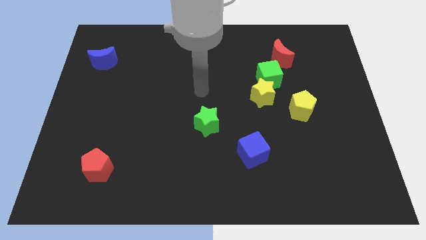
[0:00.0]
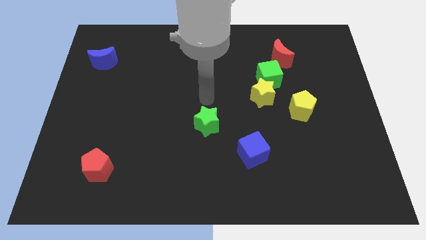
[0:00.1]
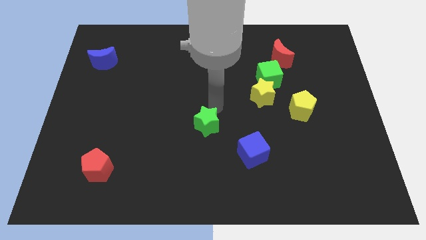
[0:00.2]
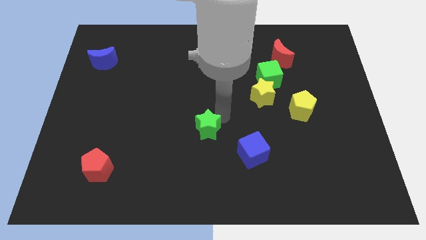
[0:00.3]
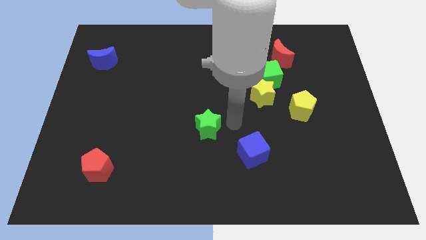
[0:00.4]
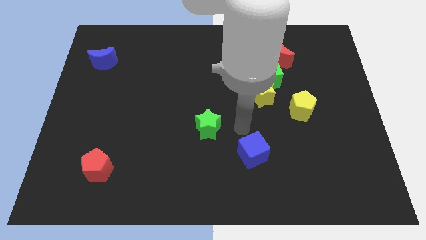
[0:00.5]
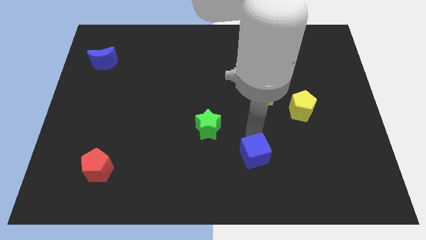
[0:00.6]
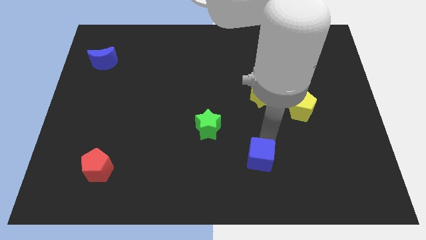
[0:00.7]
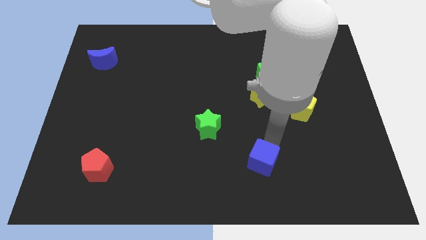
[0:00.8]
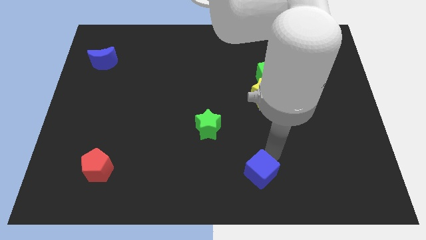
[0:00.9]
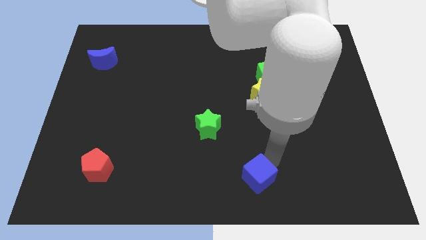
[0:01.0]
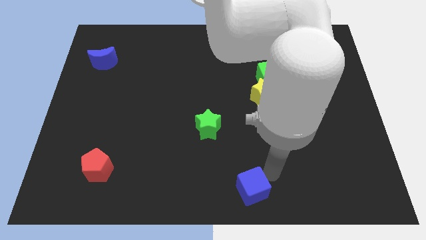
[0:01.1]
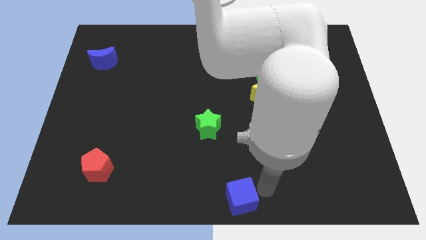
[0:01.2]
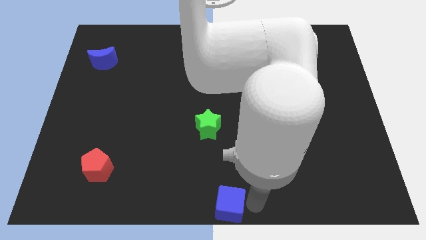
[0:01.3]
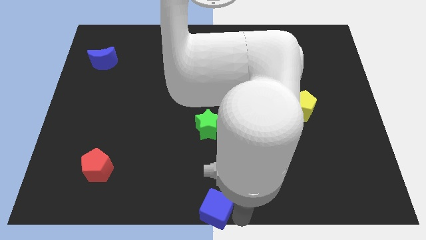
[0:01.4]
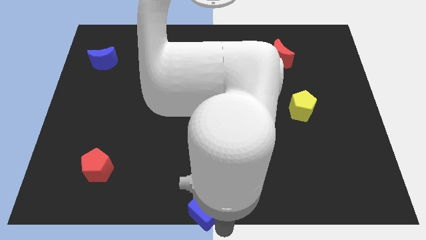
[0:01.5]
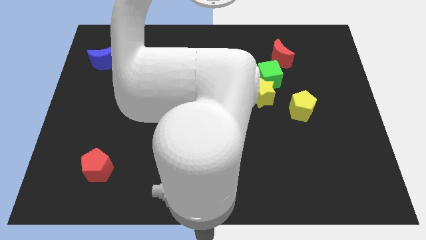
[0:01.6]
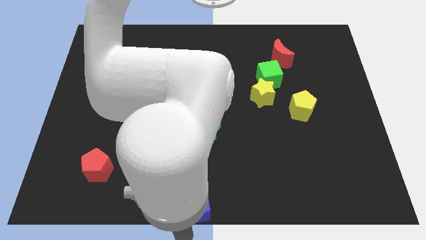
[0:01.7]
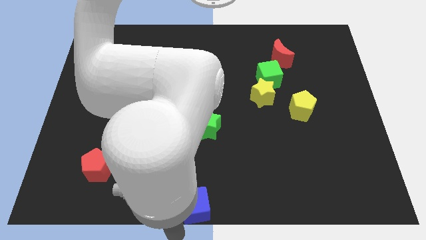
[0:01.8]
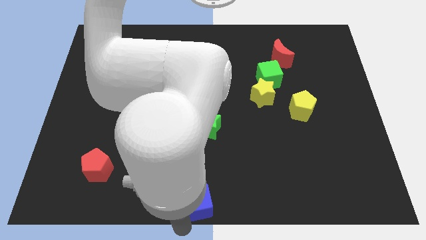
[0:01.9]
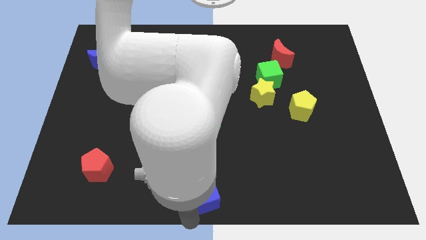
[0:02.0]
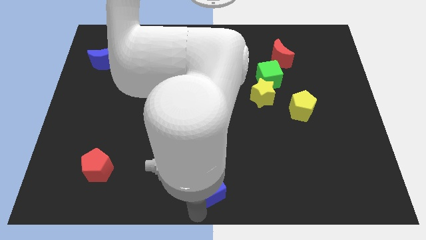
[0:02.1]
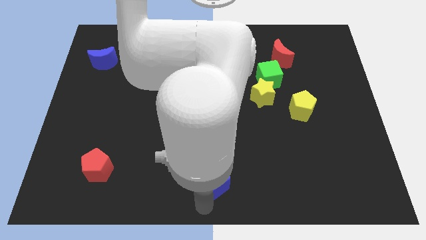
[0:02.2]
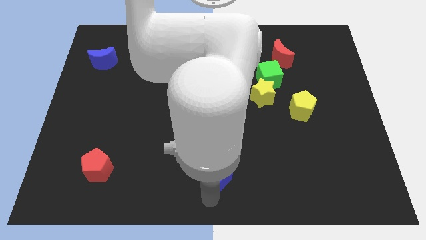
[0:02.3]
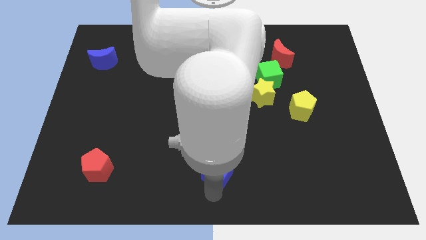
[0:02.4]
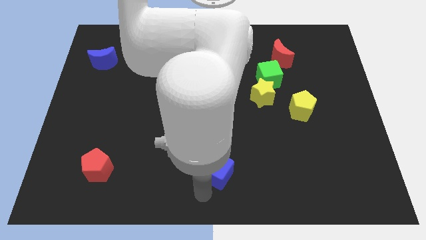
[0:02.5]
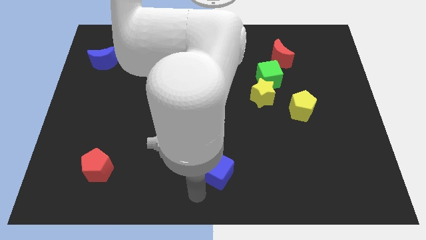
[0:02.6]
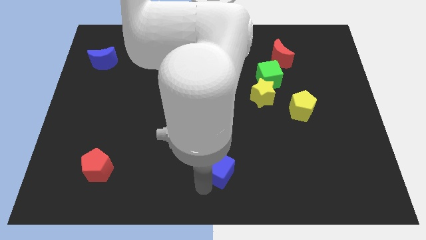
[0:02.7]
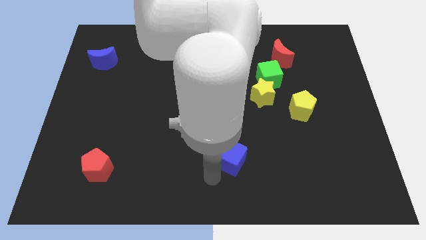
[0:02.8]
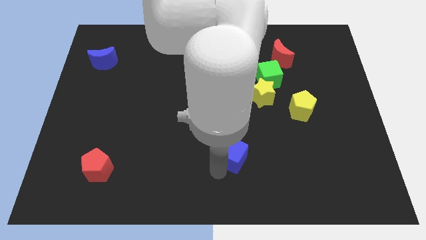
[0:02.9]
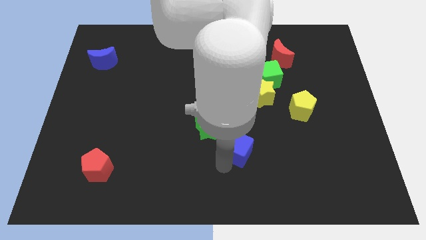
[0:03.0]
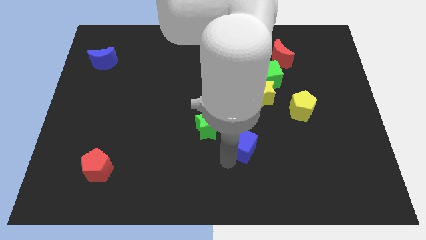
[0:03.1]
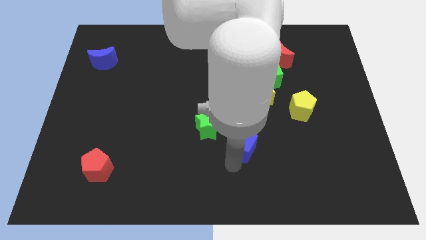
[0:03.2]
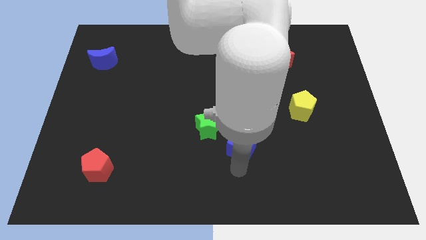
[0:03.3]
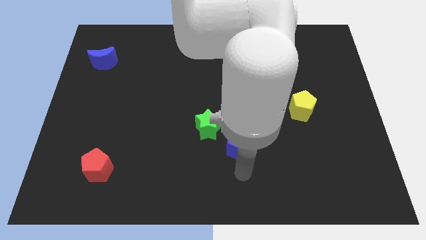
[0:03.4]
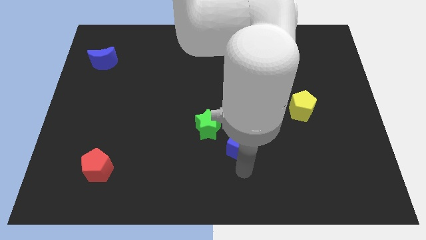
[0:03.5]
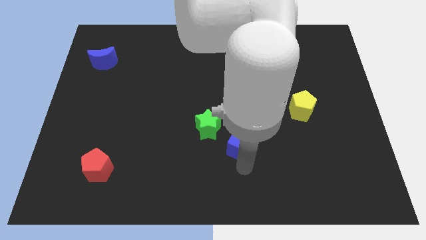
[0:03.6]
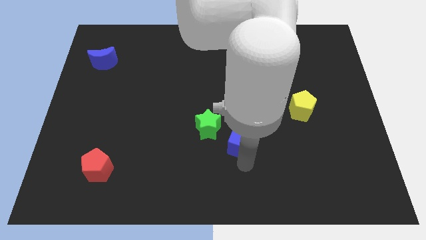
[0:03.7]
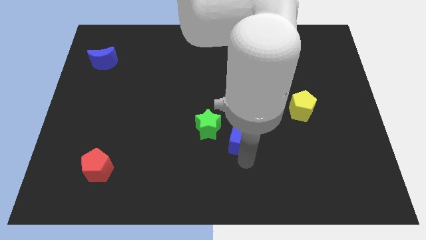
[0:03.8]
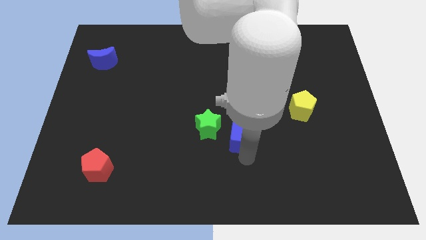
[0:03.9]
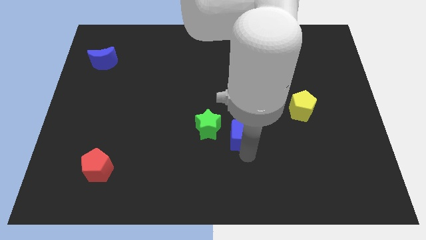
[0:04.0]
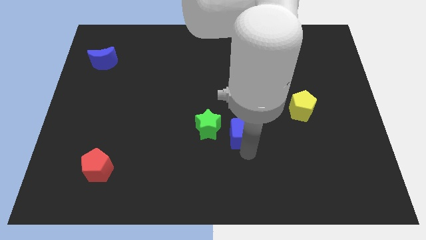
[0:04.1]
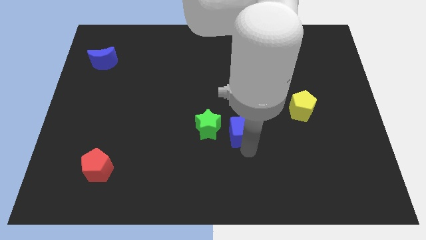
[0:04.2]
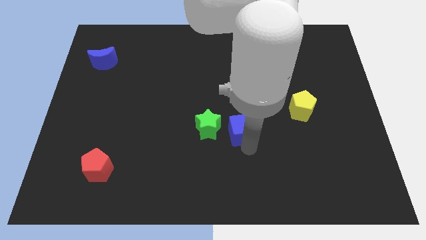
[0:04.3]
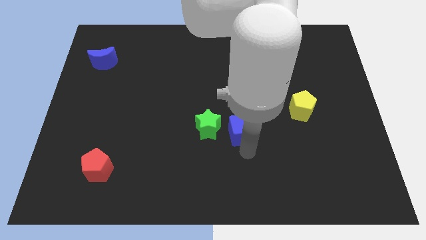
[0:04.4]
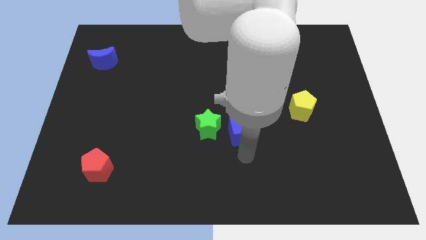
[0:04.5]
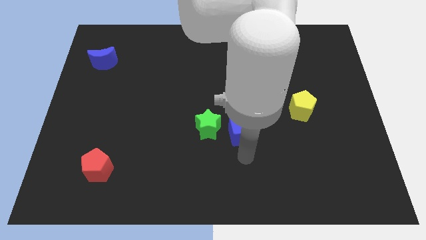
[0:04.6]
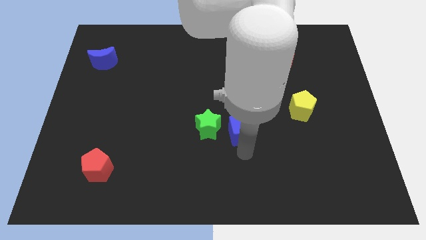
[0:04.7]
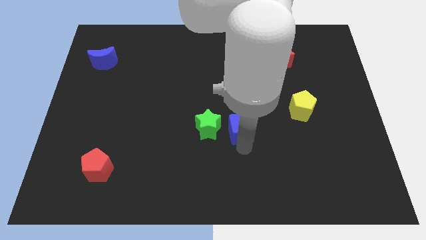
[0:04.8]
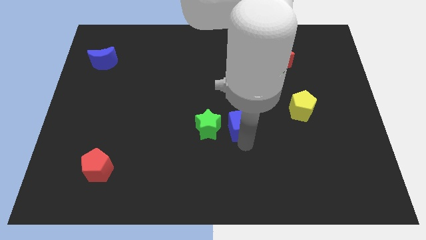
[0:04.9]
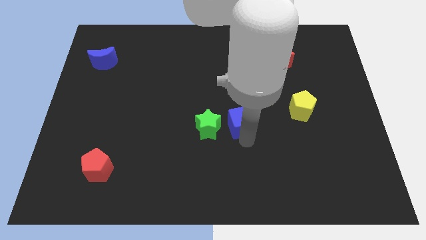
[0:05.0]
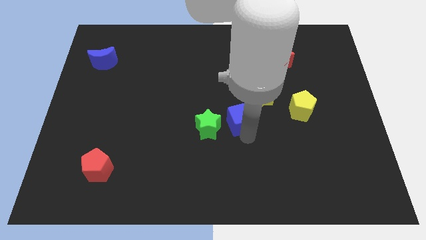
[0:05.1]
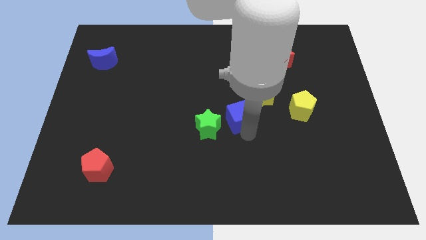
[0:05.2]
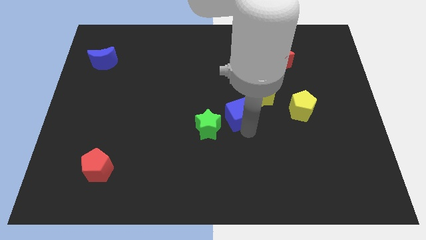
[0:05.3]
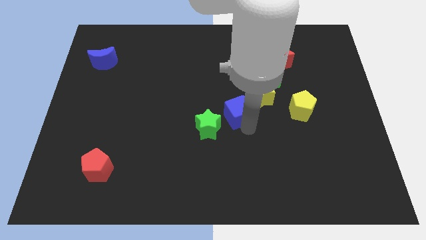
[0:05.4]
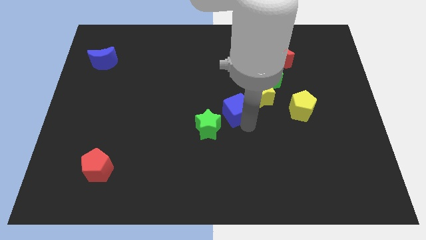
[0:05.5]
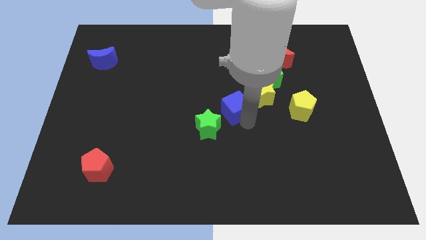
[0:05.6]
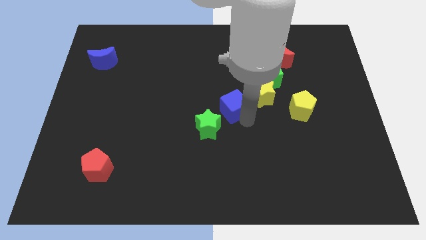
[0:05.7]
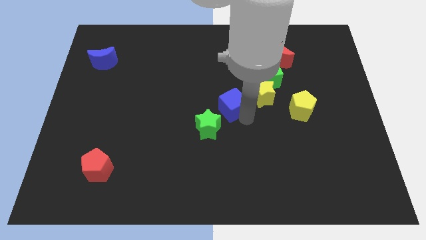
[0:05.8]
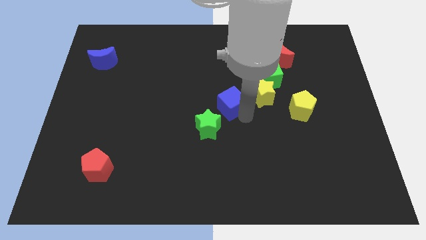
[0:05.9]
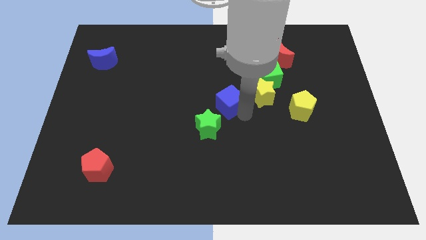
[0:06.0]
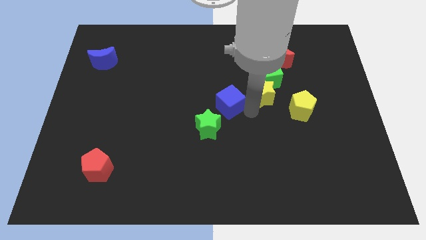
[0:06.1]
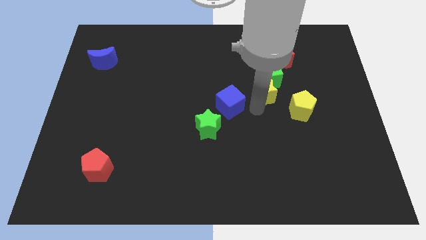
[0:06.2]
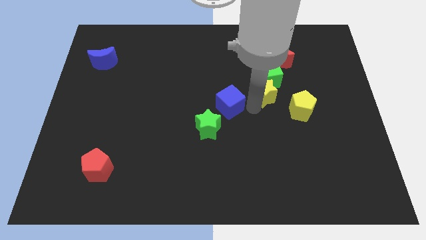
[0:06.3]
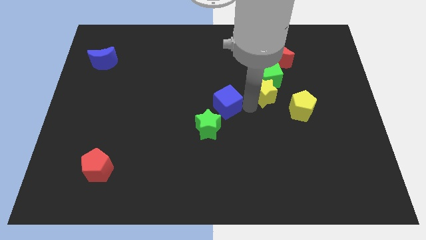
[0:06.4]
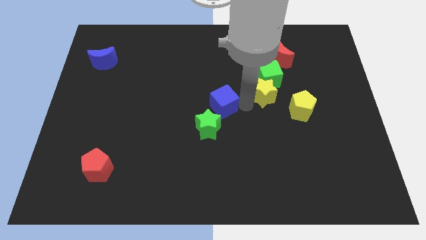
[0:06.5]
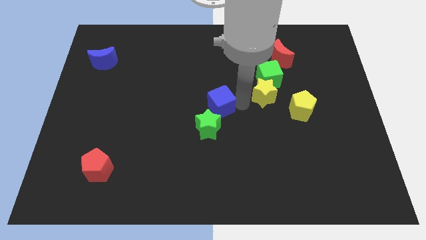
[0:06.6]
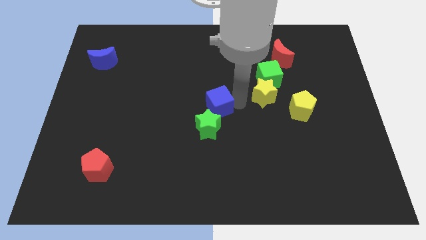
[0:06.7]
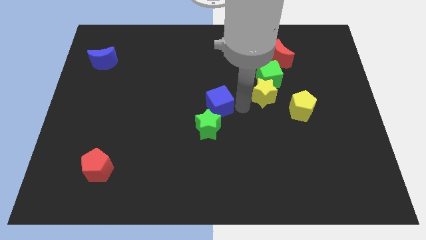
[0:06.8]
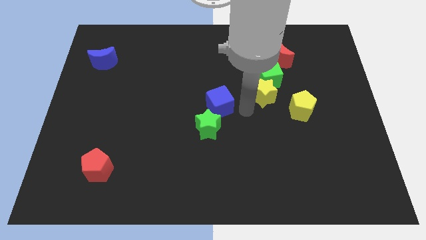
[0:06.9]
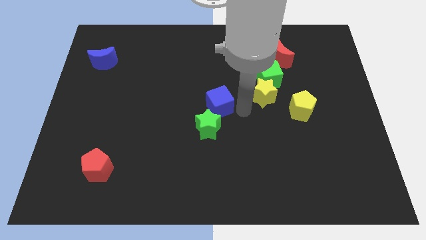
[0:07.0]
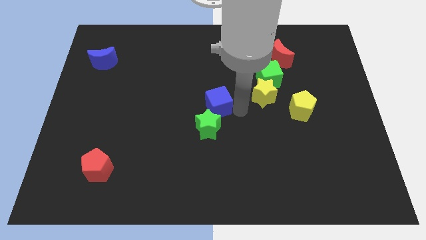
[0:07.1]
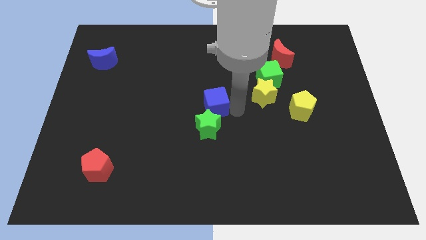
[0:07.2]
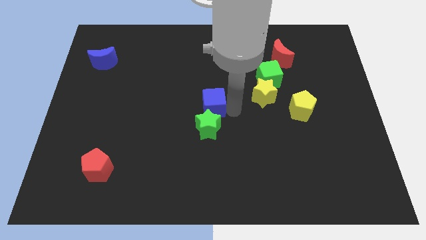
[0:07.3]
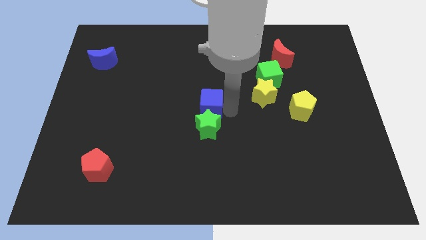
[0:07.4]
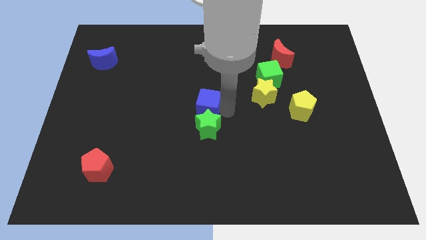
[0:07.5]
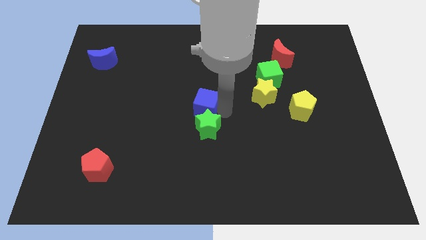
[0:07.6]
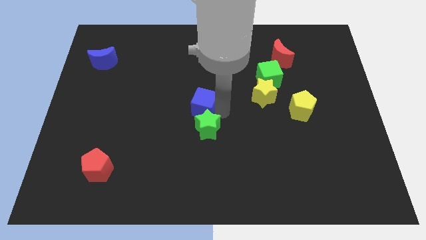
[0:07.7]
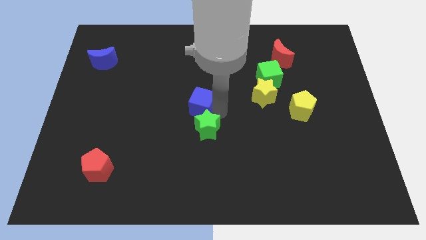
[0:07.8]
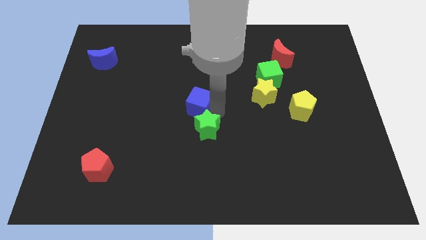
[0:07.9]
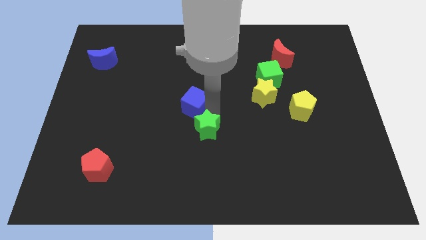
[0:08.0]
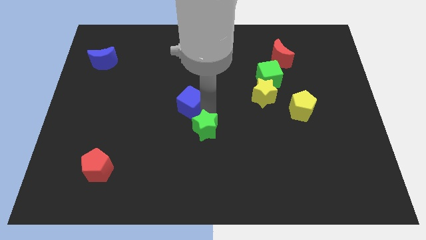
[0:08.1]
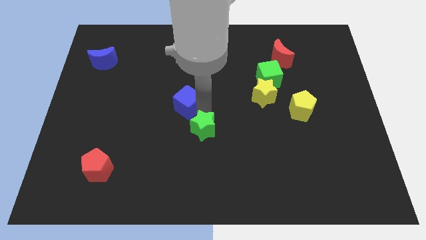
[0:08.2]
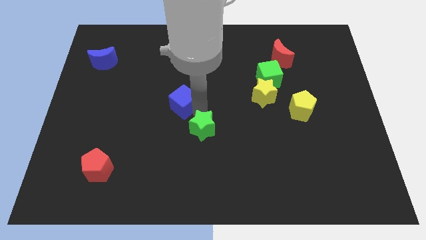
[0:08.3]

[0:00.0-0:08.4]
move the blue cube up and left
